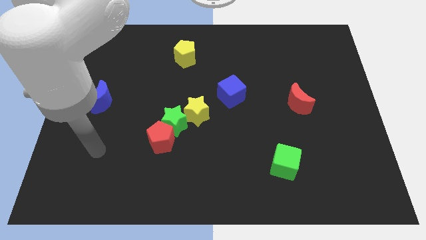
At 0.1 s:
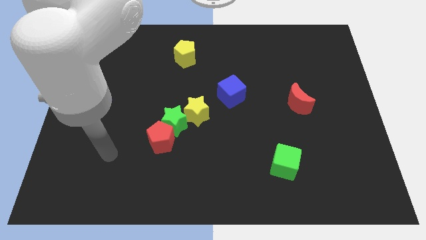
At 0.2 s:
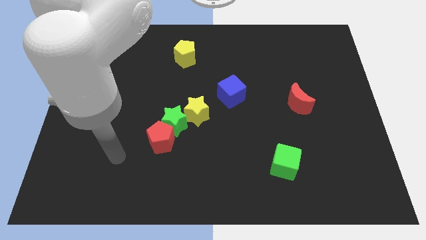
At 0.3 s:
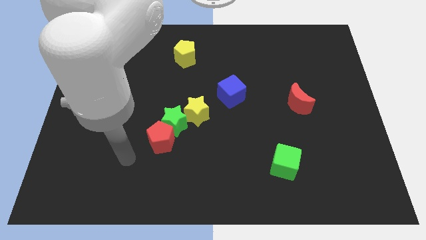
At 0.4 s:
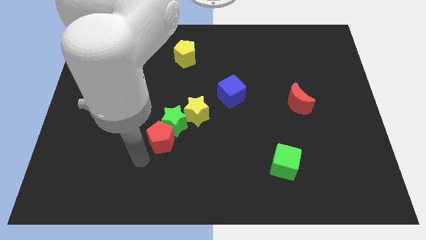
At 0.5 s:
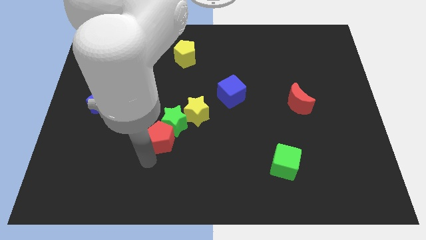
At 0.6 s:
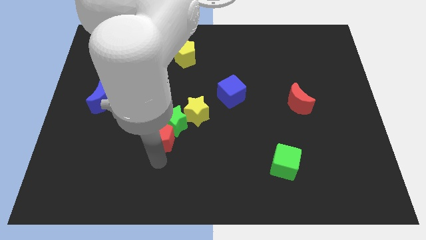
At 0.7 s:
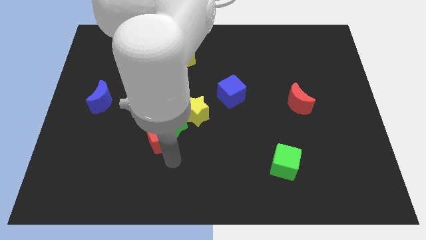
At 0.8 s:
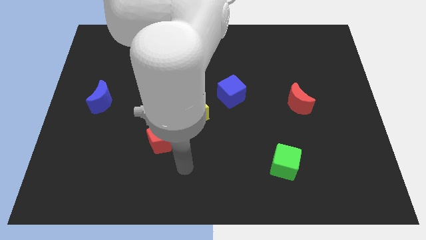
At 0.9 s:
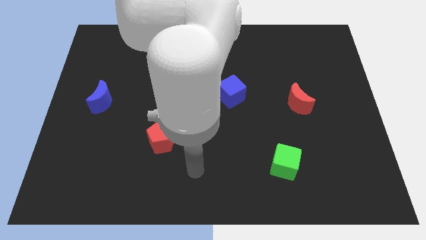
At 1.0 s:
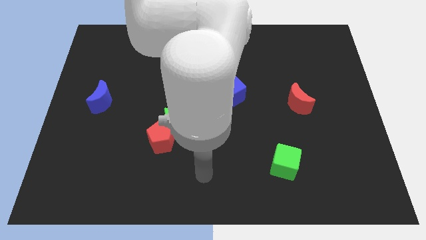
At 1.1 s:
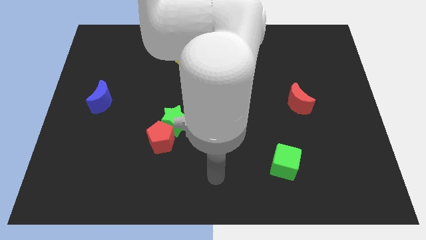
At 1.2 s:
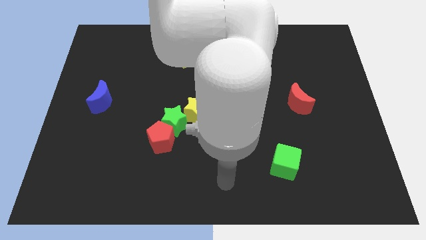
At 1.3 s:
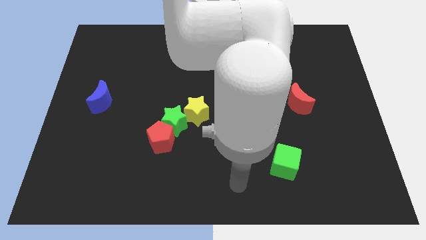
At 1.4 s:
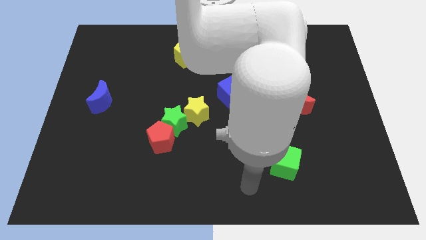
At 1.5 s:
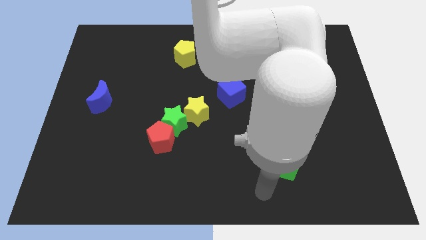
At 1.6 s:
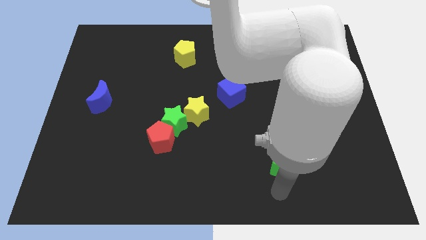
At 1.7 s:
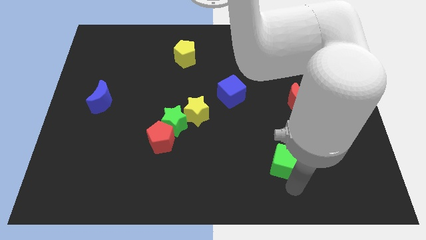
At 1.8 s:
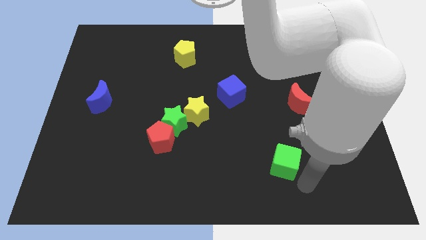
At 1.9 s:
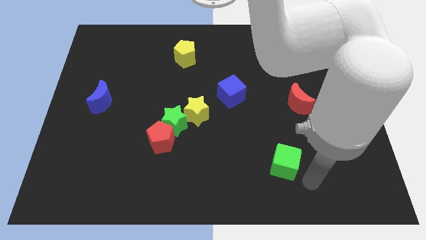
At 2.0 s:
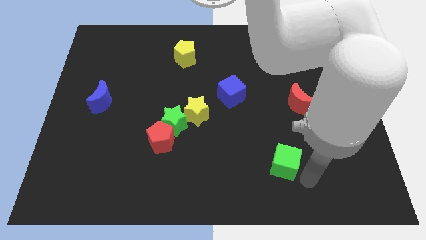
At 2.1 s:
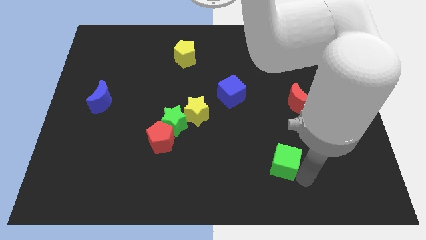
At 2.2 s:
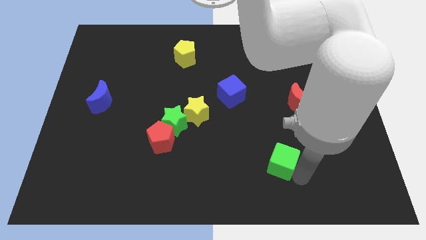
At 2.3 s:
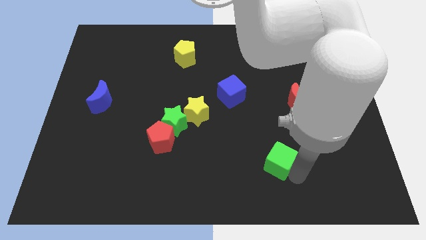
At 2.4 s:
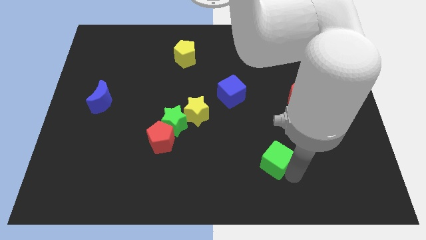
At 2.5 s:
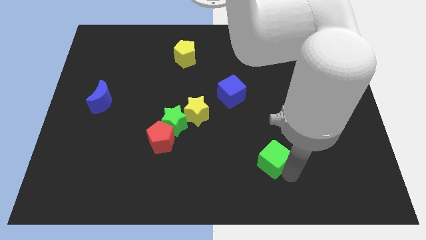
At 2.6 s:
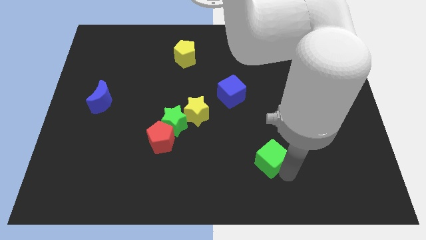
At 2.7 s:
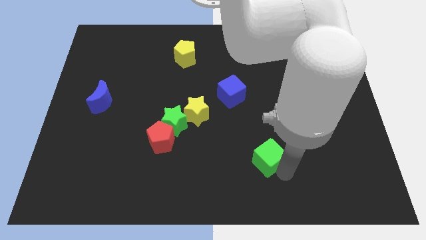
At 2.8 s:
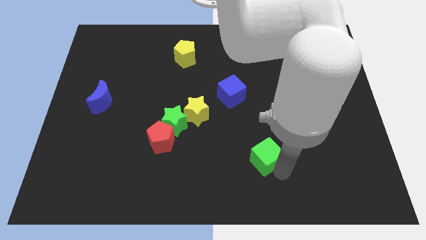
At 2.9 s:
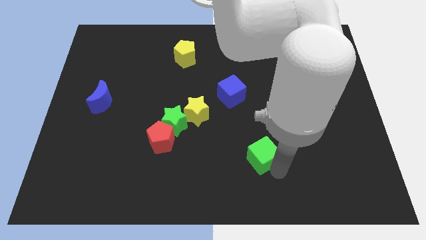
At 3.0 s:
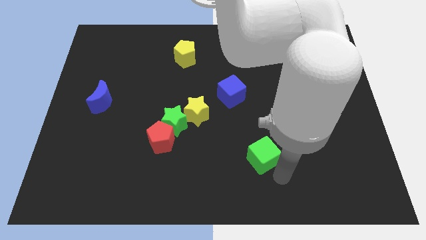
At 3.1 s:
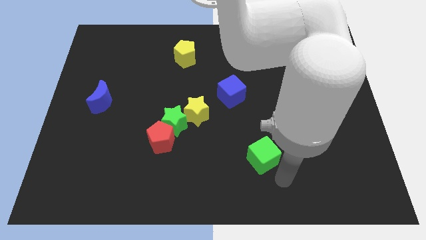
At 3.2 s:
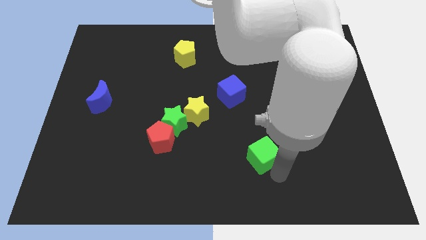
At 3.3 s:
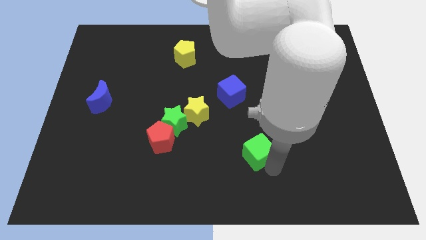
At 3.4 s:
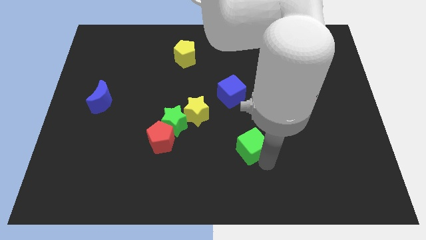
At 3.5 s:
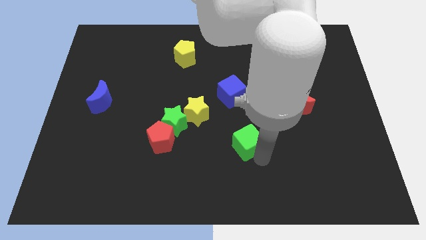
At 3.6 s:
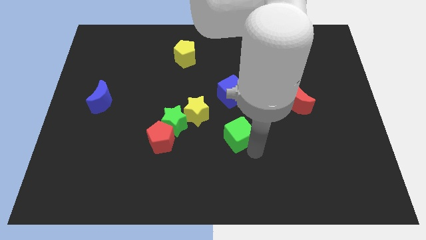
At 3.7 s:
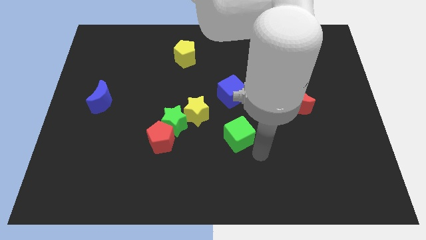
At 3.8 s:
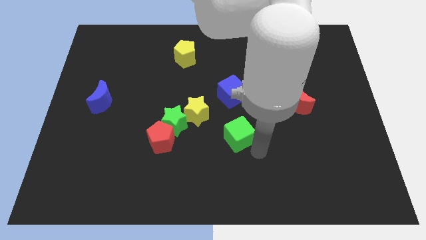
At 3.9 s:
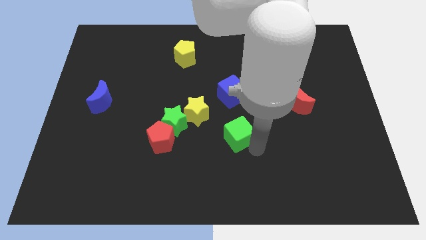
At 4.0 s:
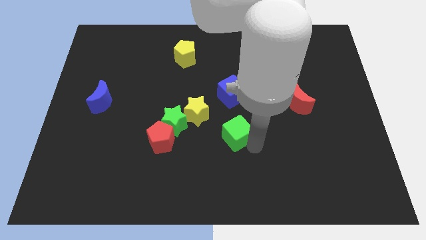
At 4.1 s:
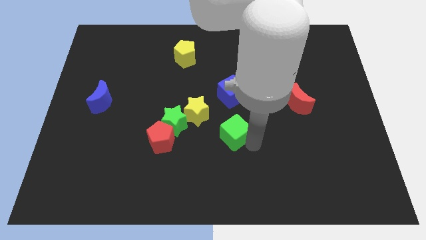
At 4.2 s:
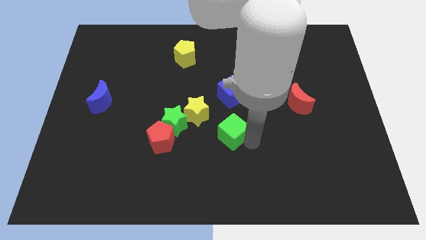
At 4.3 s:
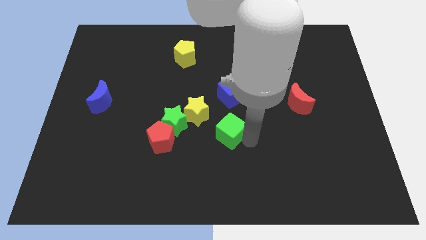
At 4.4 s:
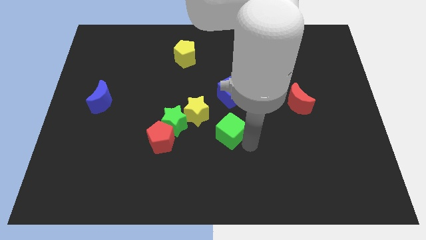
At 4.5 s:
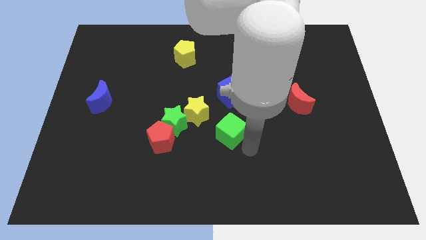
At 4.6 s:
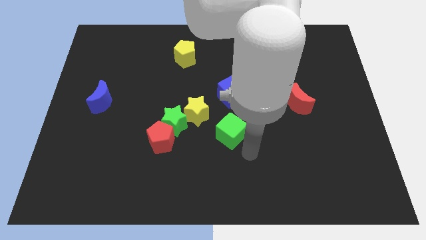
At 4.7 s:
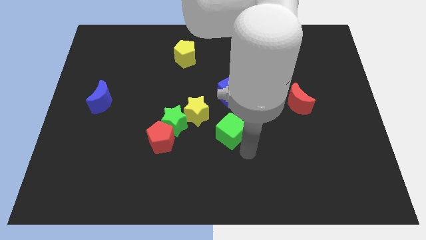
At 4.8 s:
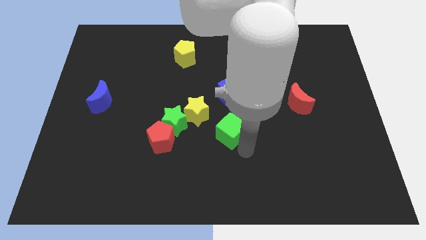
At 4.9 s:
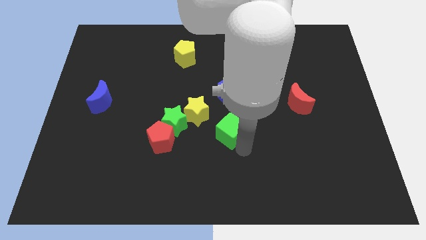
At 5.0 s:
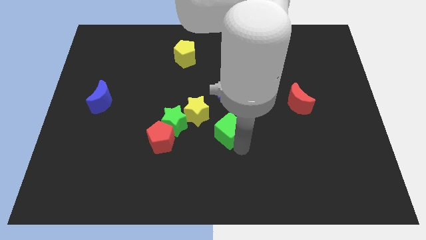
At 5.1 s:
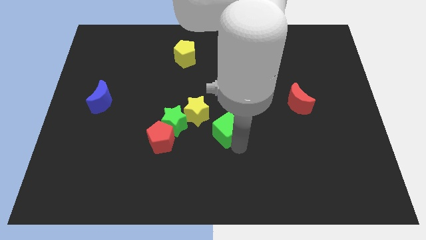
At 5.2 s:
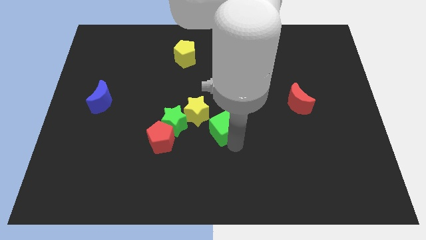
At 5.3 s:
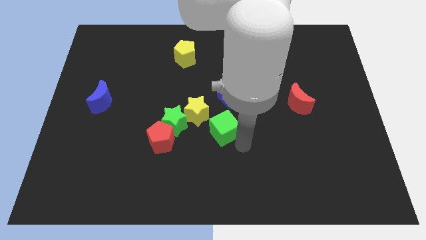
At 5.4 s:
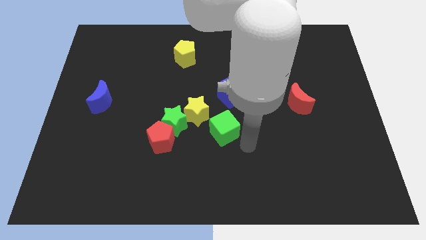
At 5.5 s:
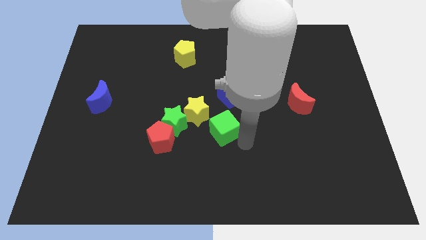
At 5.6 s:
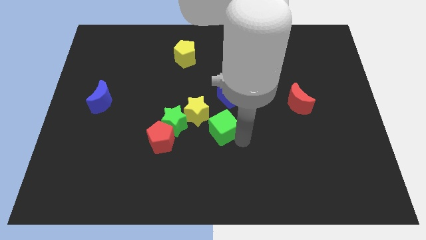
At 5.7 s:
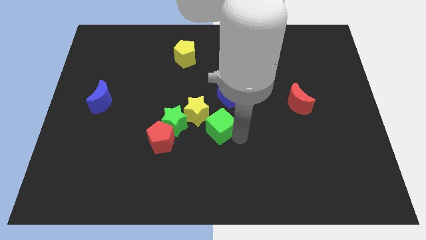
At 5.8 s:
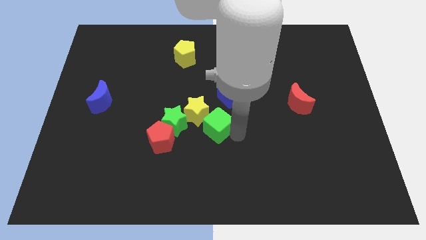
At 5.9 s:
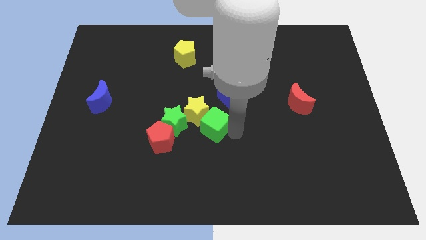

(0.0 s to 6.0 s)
slide the green cube towards the yellow star

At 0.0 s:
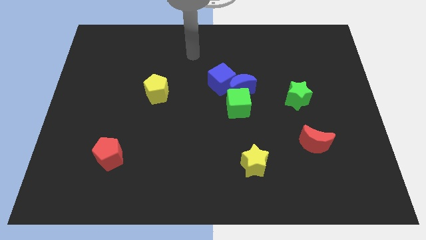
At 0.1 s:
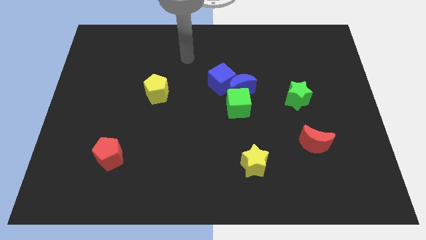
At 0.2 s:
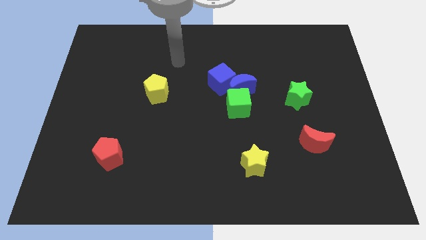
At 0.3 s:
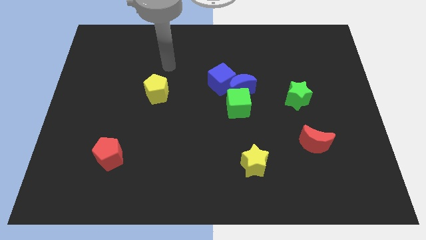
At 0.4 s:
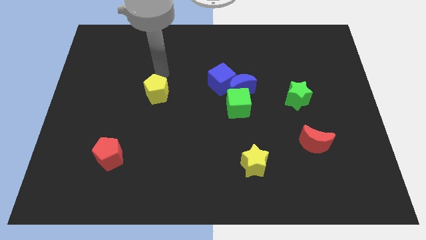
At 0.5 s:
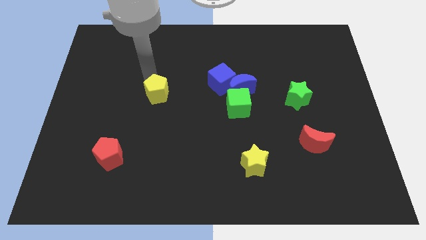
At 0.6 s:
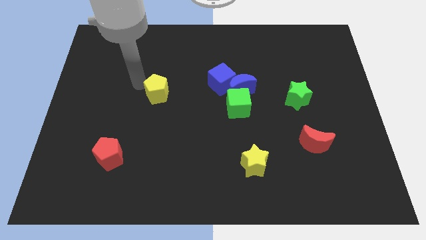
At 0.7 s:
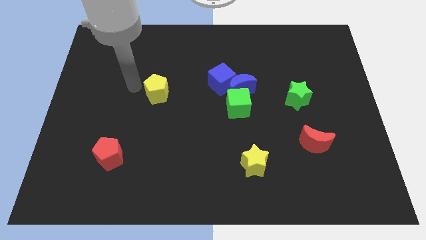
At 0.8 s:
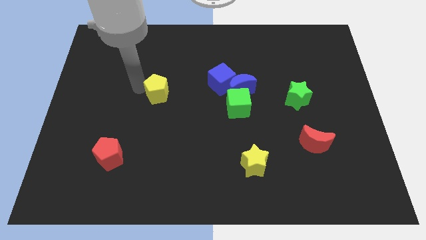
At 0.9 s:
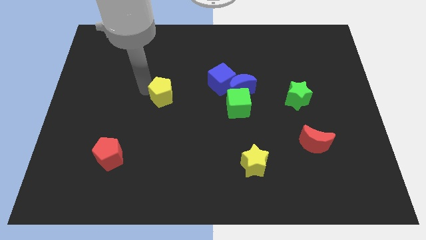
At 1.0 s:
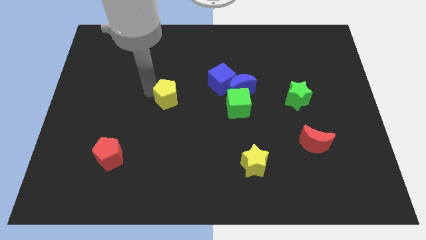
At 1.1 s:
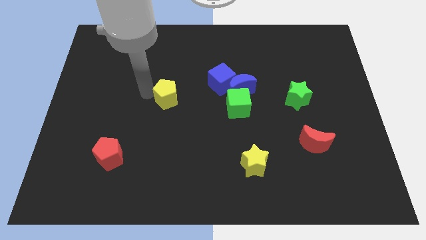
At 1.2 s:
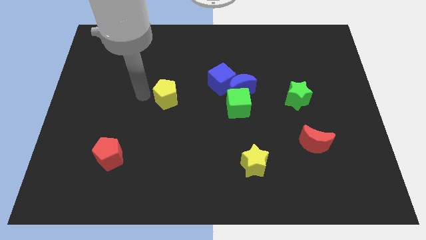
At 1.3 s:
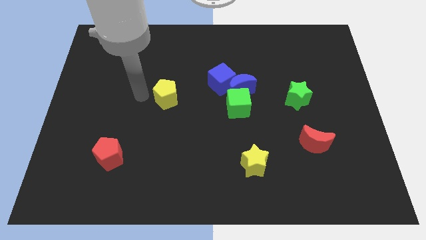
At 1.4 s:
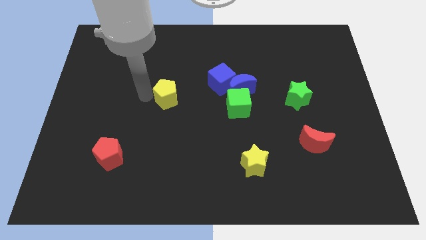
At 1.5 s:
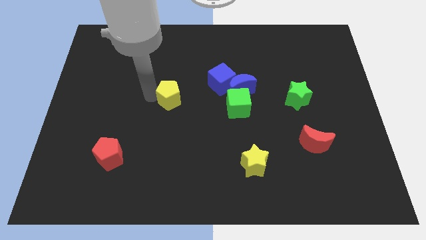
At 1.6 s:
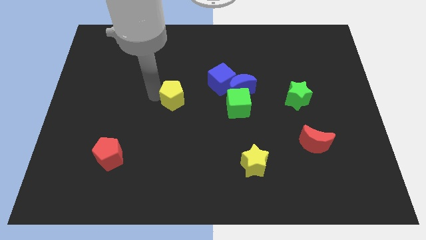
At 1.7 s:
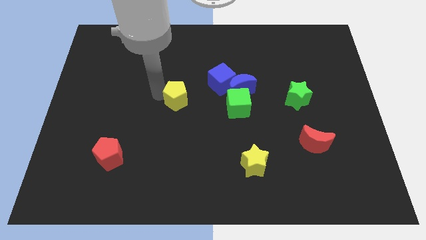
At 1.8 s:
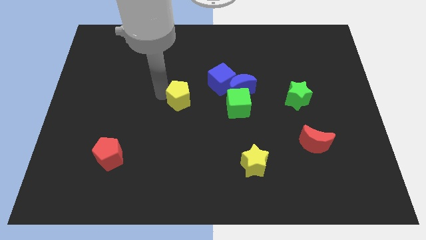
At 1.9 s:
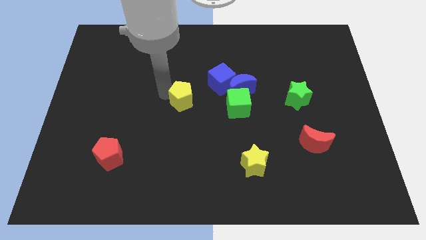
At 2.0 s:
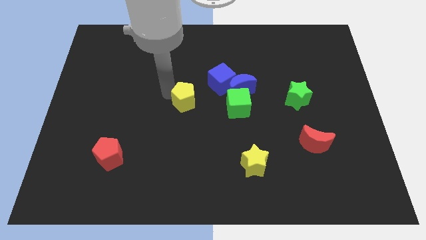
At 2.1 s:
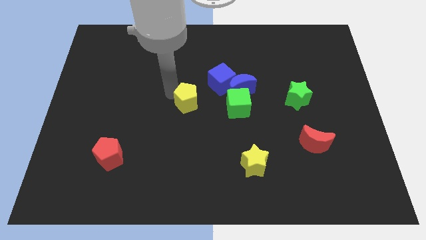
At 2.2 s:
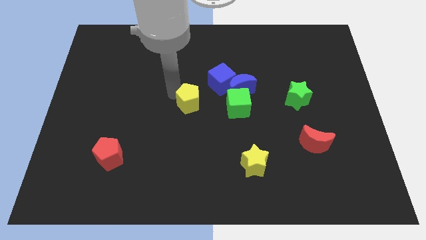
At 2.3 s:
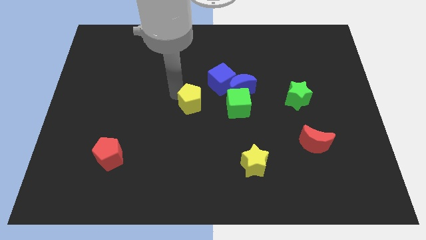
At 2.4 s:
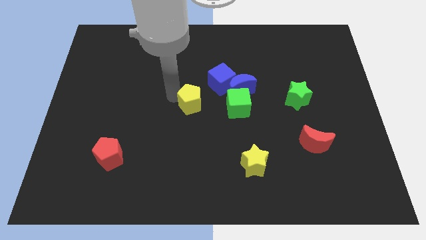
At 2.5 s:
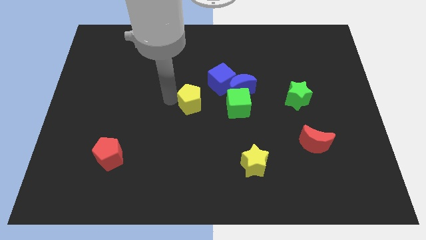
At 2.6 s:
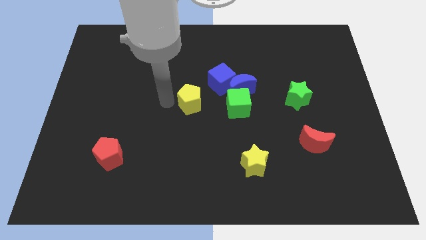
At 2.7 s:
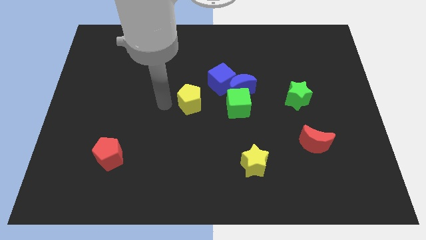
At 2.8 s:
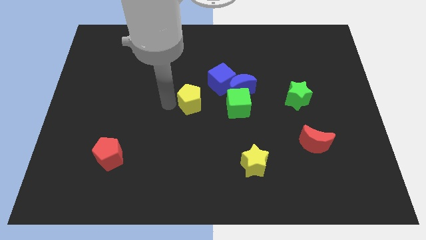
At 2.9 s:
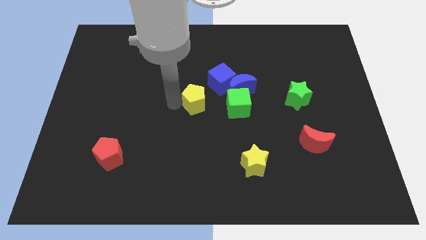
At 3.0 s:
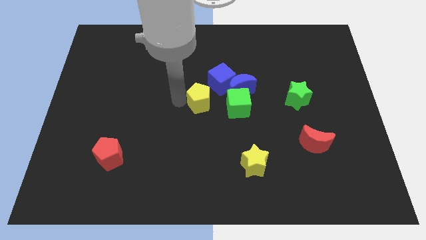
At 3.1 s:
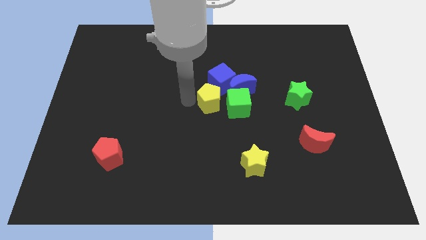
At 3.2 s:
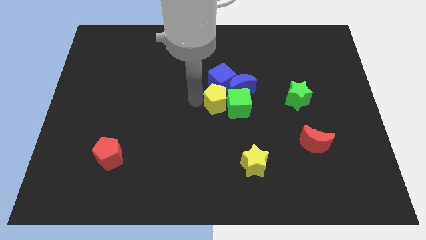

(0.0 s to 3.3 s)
move the yellow pentagon to the green cube
